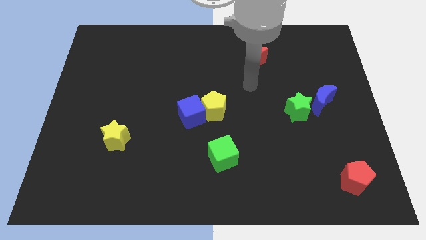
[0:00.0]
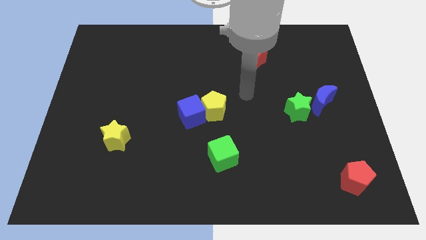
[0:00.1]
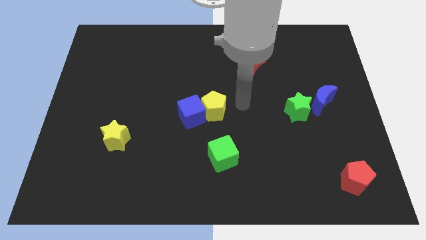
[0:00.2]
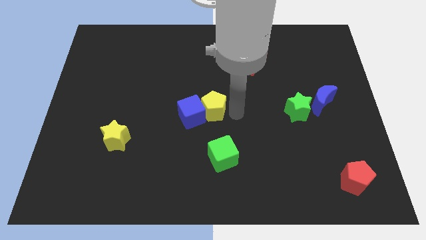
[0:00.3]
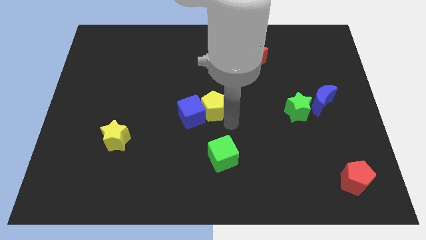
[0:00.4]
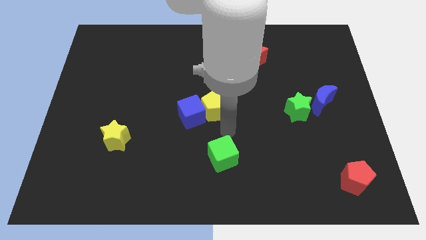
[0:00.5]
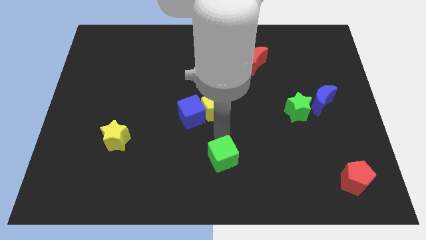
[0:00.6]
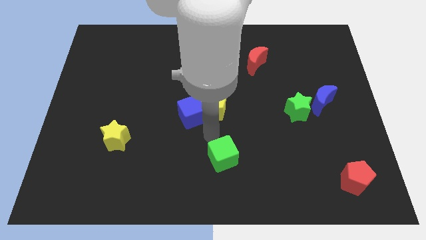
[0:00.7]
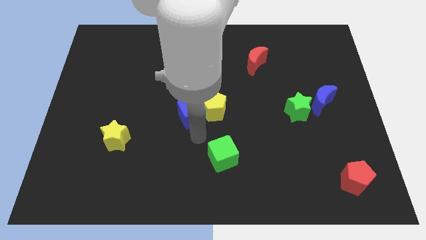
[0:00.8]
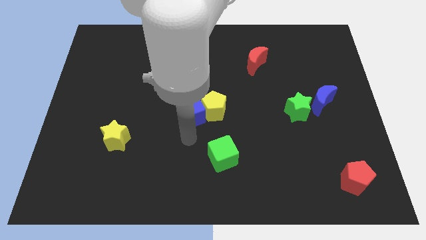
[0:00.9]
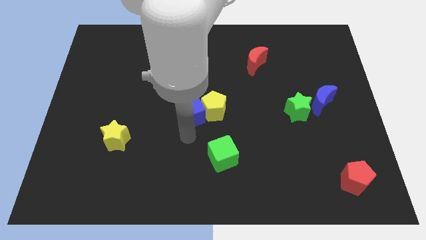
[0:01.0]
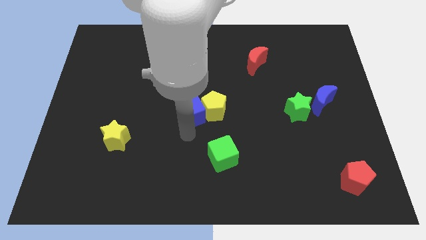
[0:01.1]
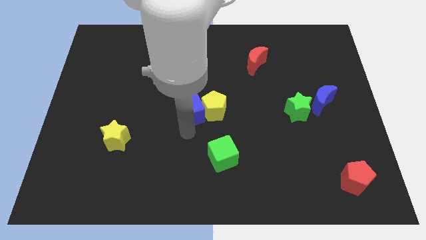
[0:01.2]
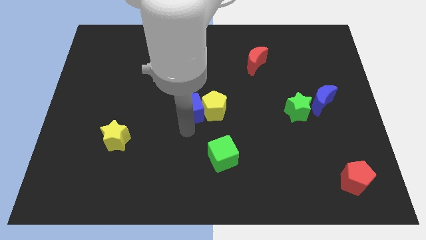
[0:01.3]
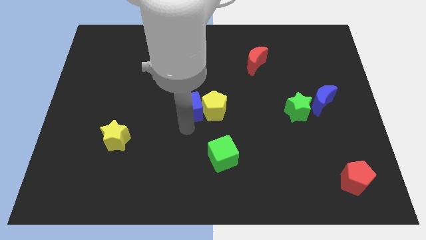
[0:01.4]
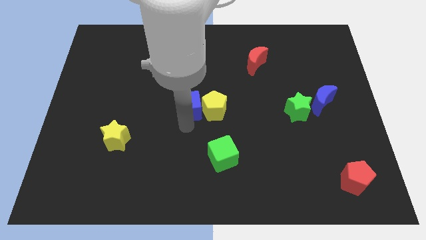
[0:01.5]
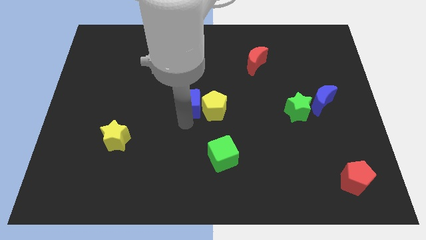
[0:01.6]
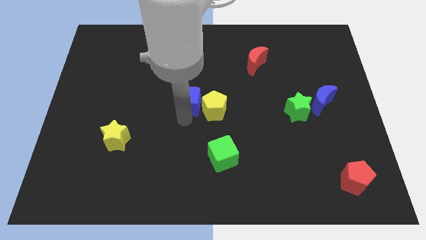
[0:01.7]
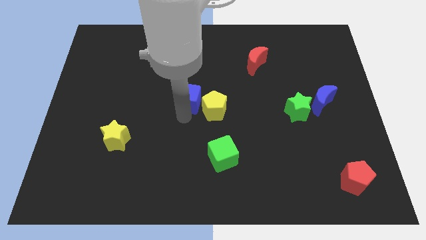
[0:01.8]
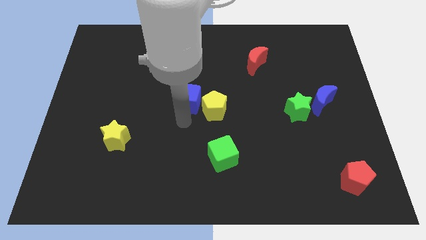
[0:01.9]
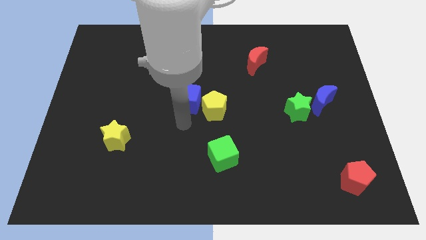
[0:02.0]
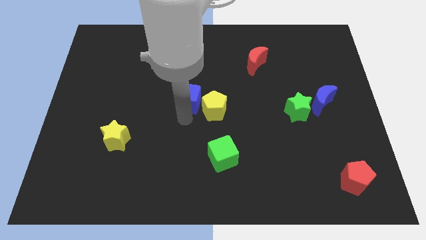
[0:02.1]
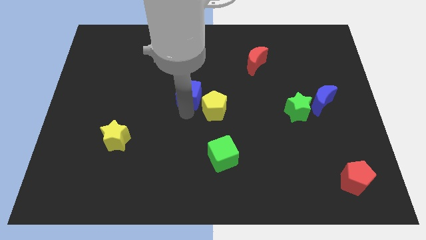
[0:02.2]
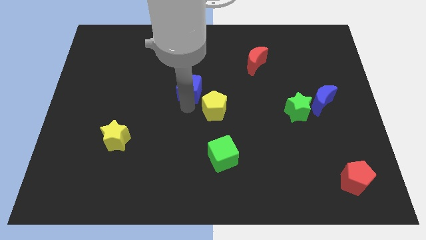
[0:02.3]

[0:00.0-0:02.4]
slightly slide the blue cube up

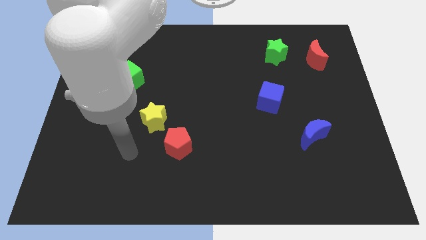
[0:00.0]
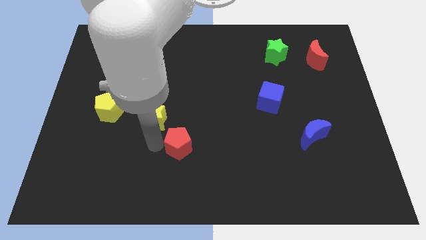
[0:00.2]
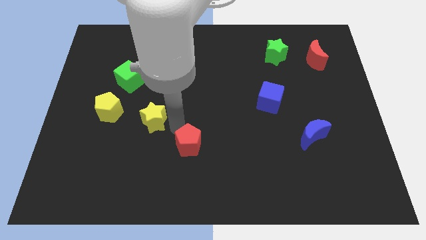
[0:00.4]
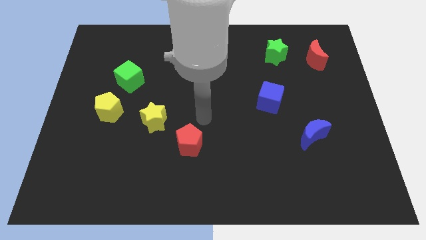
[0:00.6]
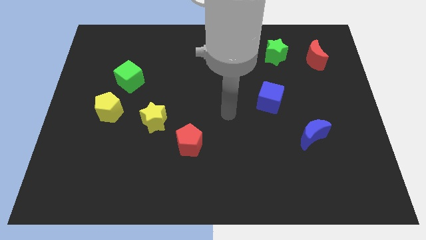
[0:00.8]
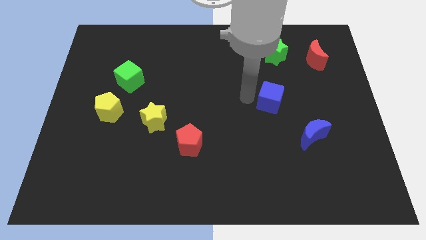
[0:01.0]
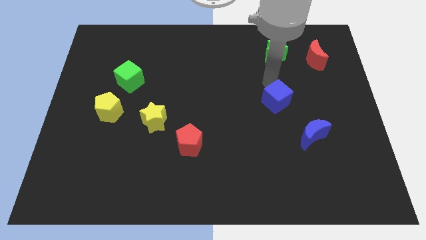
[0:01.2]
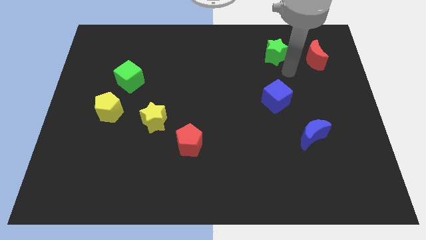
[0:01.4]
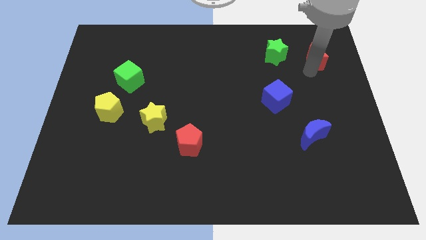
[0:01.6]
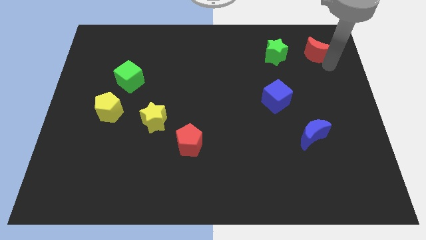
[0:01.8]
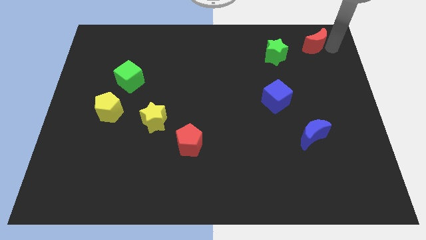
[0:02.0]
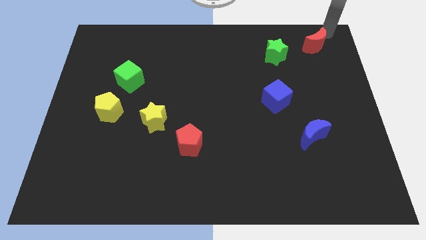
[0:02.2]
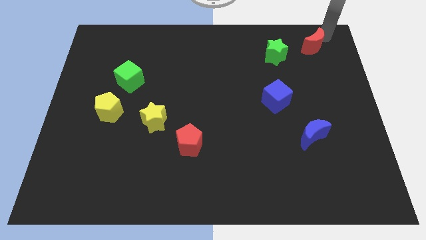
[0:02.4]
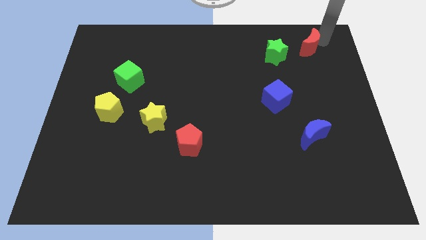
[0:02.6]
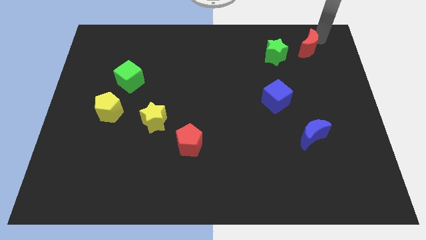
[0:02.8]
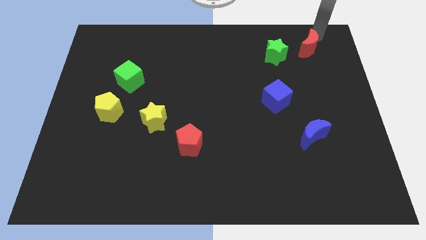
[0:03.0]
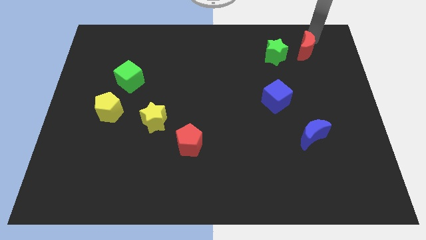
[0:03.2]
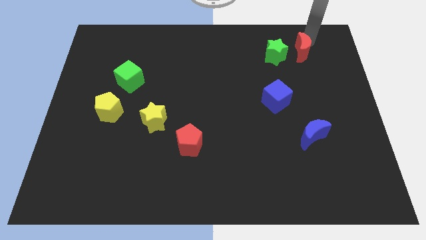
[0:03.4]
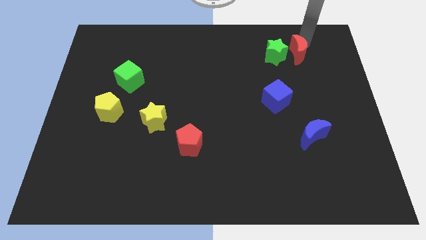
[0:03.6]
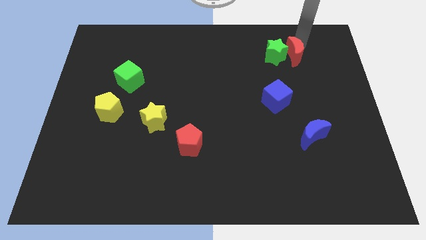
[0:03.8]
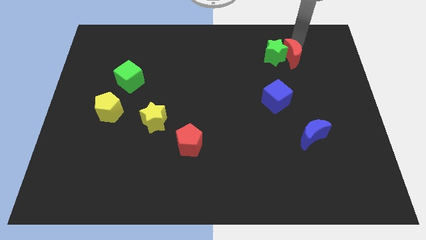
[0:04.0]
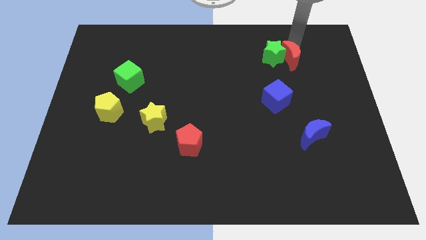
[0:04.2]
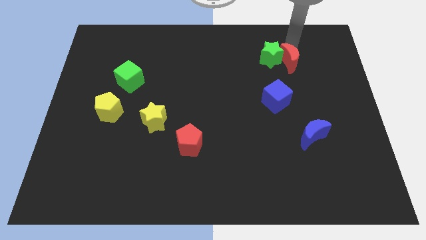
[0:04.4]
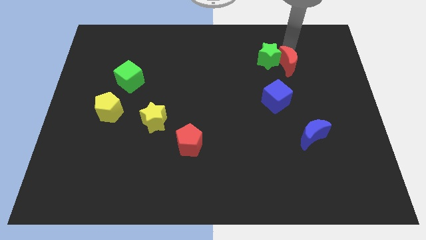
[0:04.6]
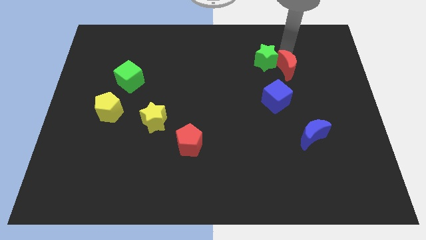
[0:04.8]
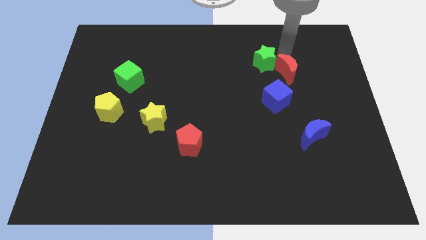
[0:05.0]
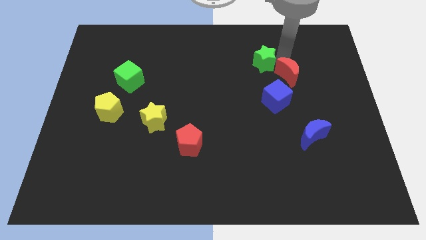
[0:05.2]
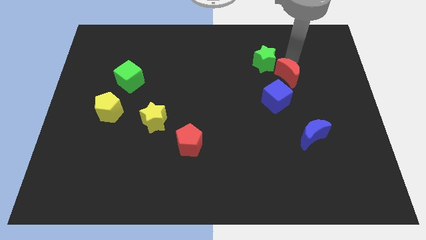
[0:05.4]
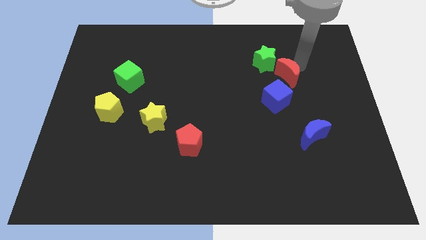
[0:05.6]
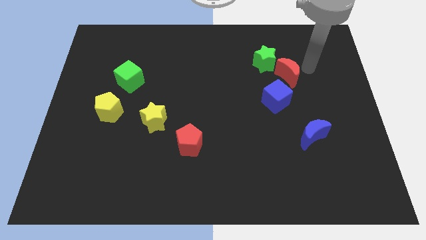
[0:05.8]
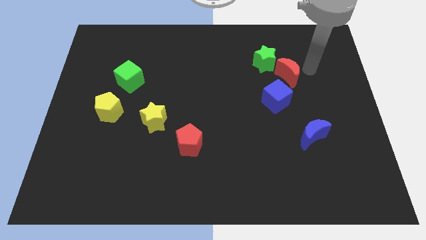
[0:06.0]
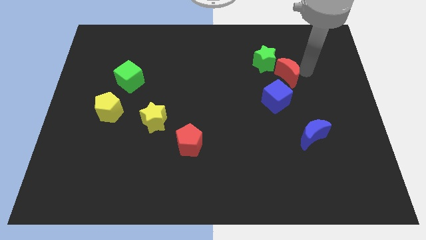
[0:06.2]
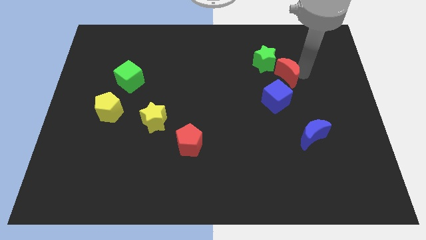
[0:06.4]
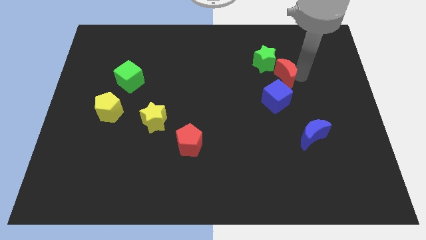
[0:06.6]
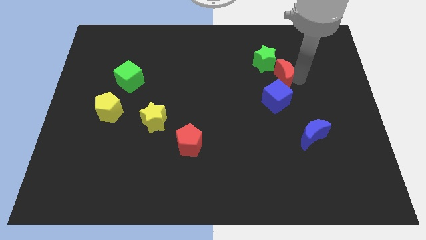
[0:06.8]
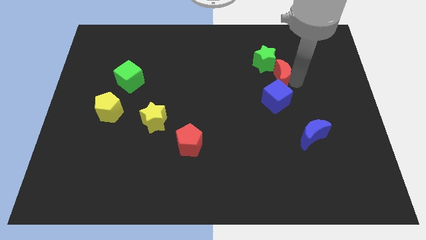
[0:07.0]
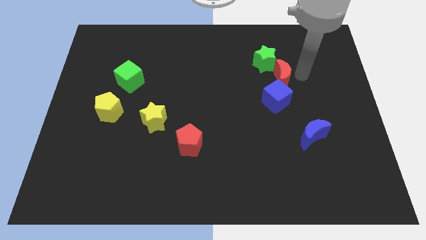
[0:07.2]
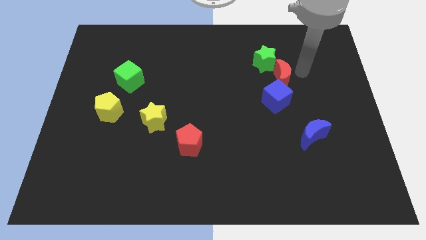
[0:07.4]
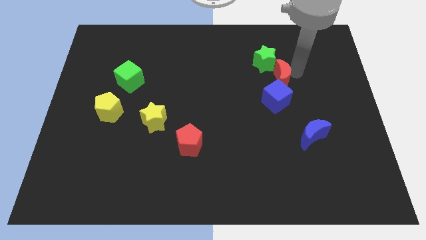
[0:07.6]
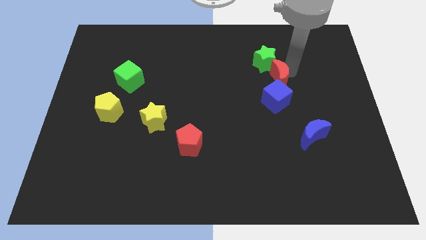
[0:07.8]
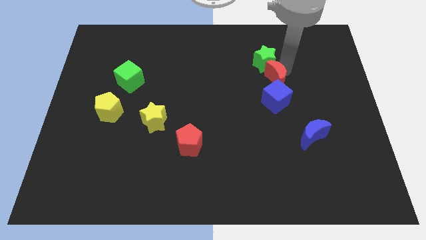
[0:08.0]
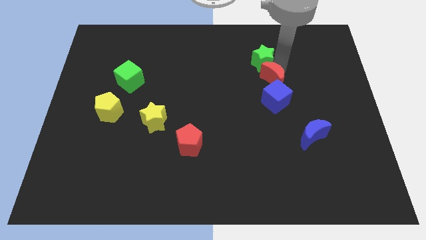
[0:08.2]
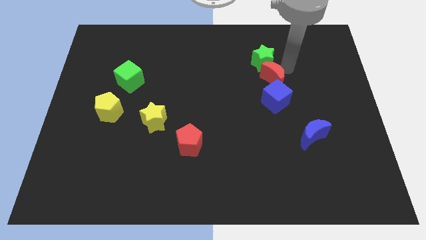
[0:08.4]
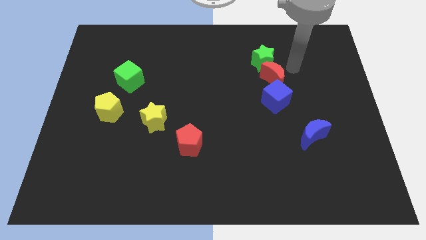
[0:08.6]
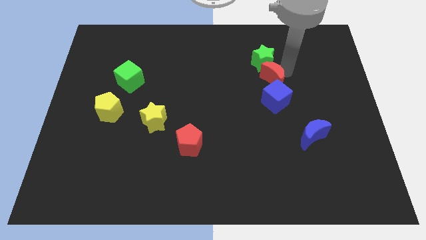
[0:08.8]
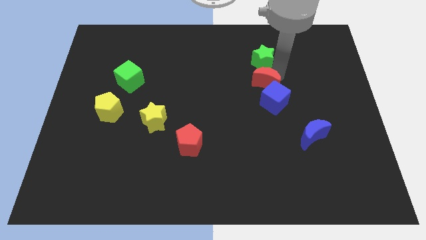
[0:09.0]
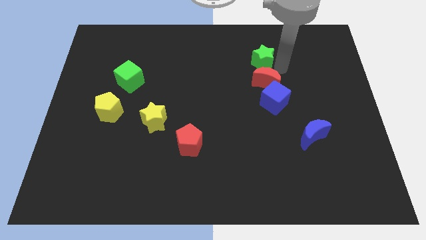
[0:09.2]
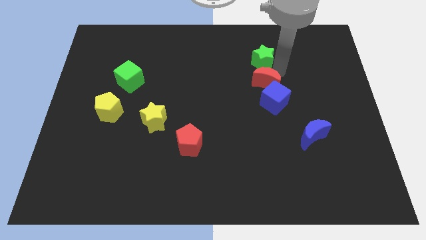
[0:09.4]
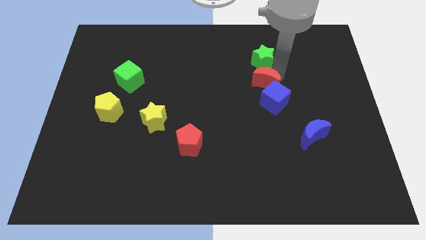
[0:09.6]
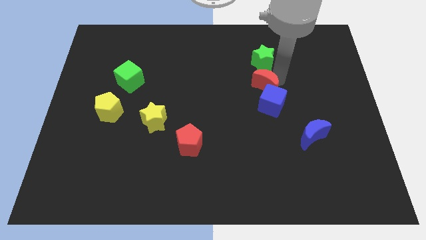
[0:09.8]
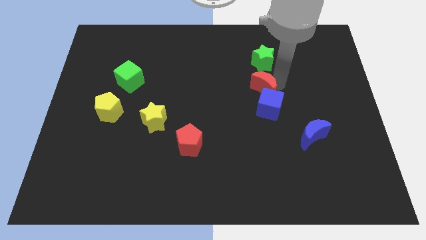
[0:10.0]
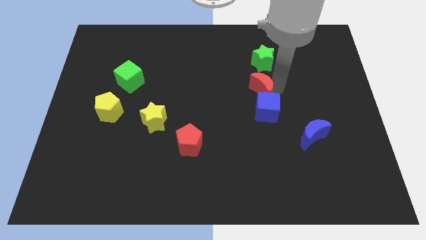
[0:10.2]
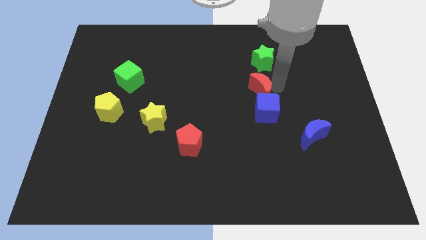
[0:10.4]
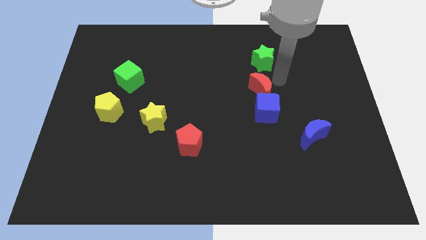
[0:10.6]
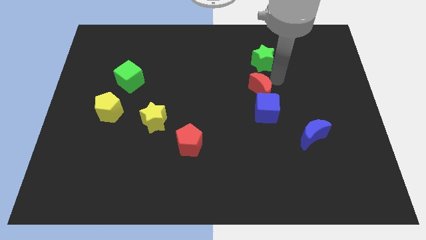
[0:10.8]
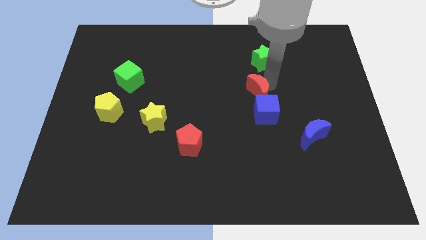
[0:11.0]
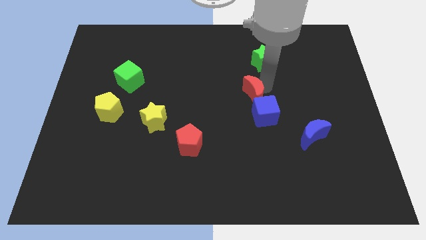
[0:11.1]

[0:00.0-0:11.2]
push the red moon diagonally down and left
